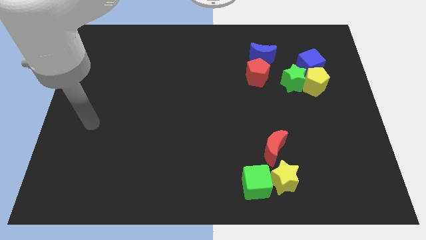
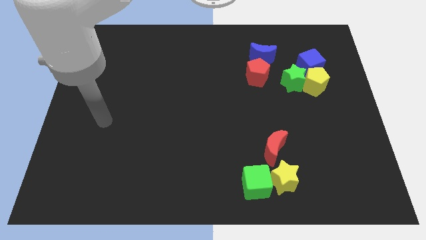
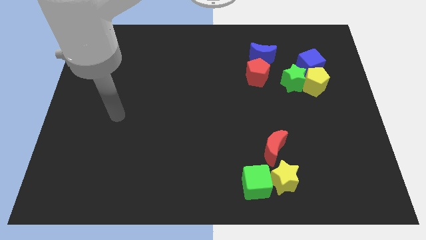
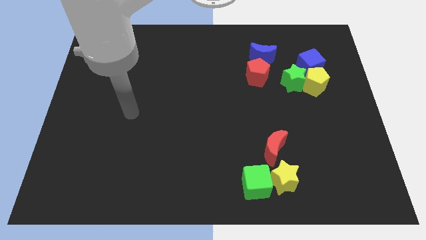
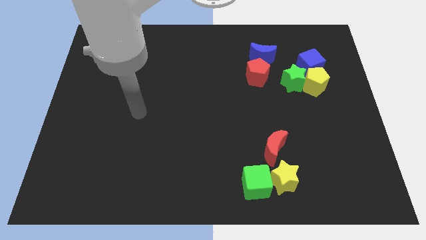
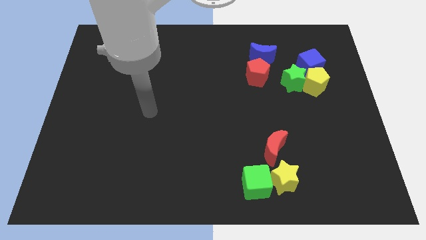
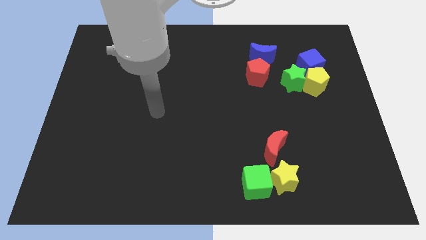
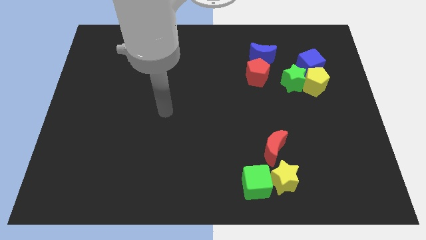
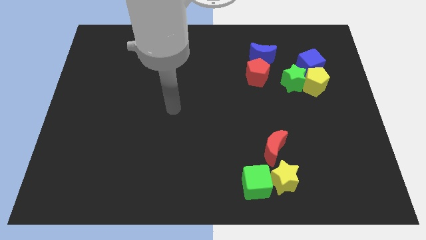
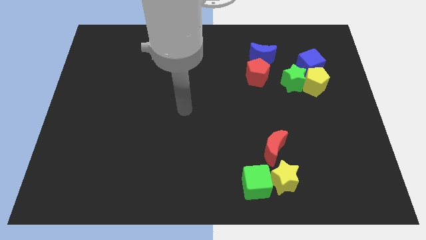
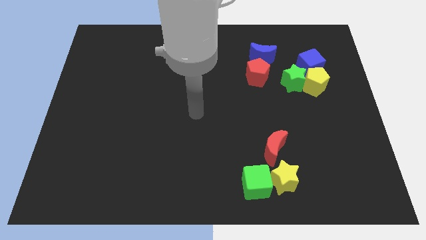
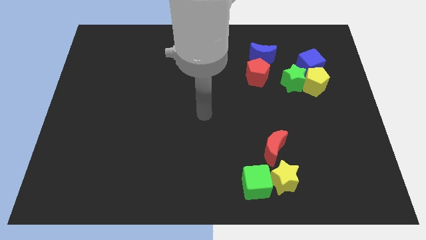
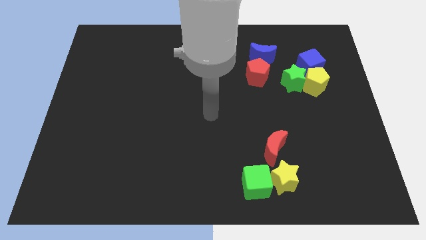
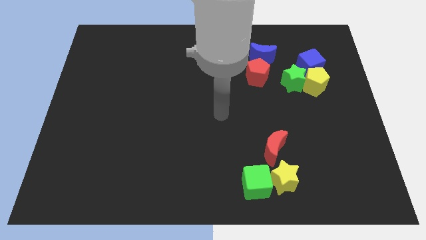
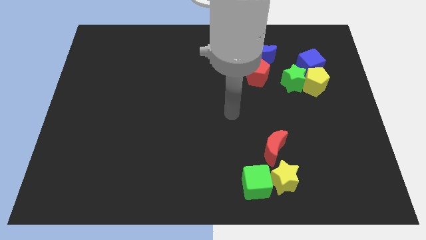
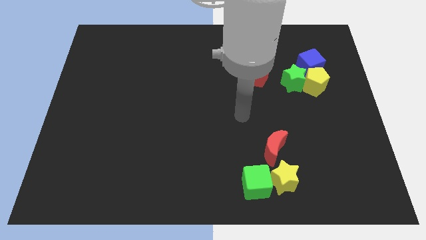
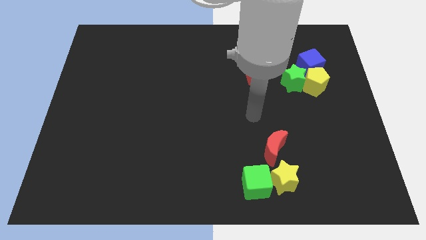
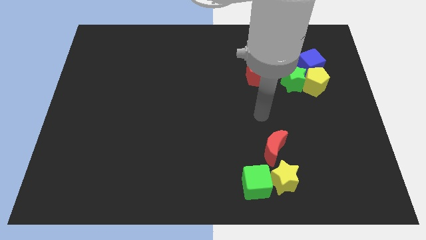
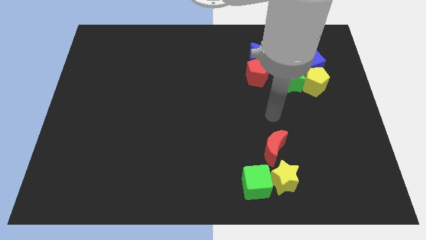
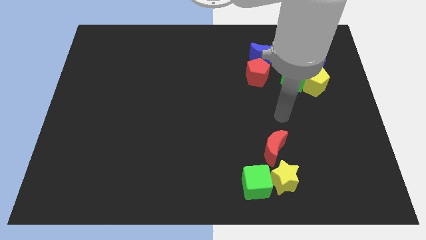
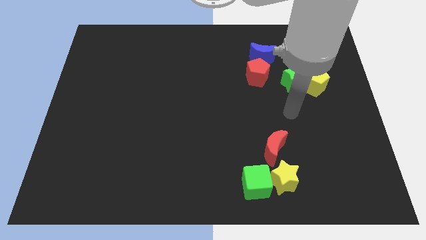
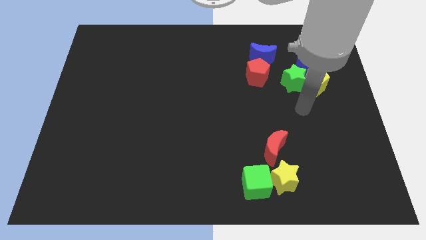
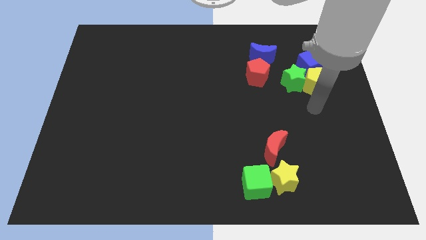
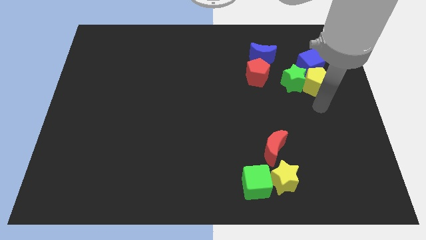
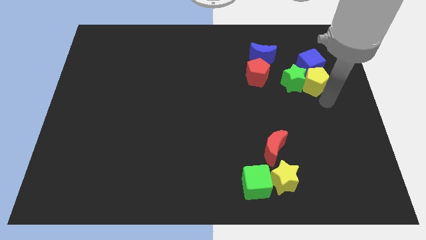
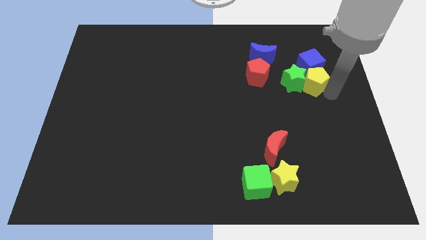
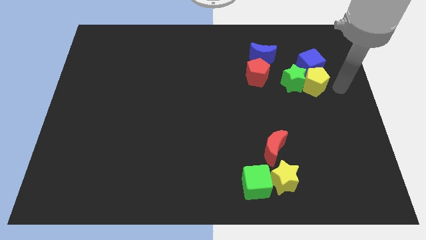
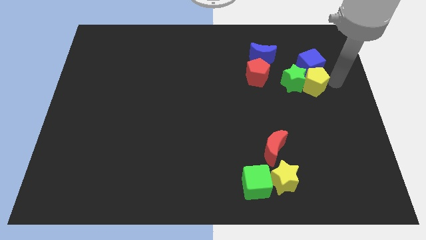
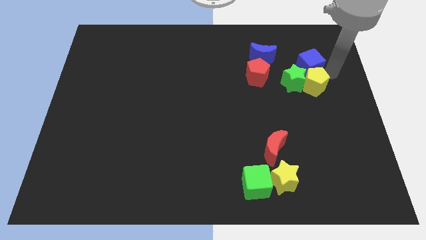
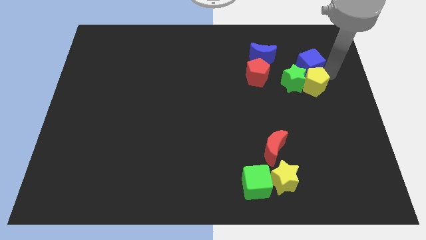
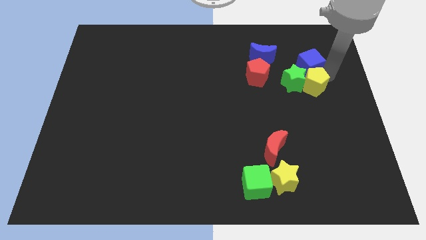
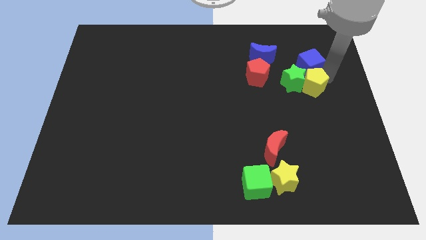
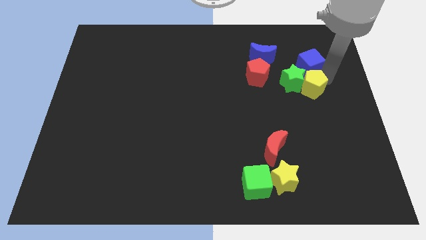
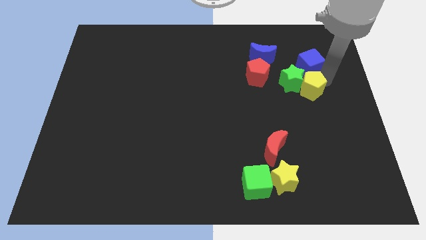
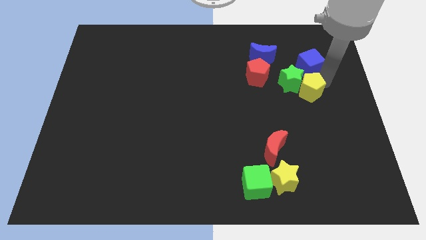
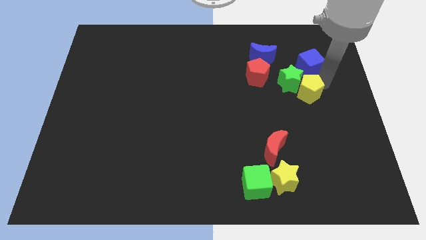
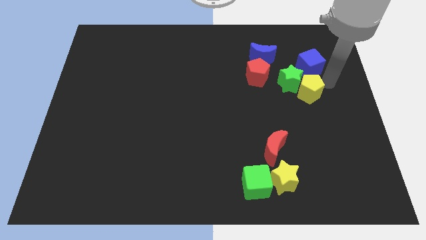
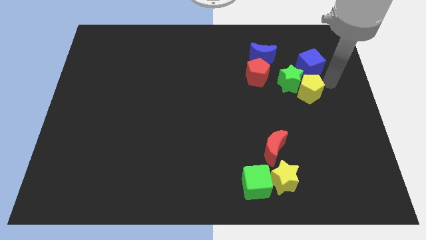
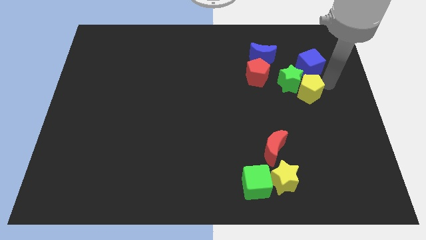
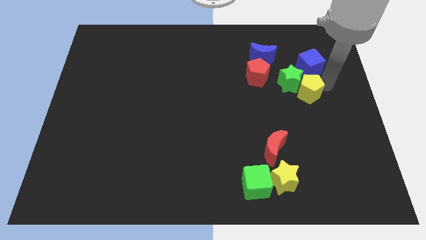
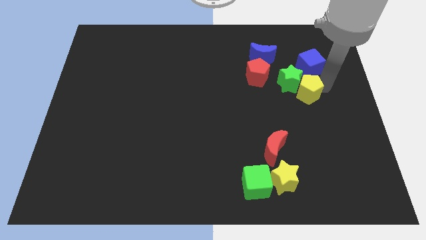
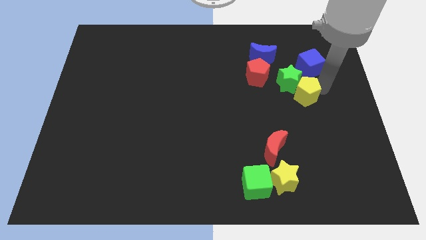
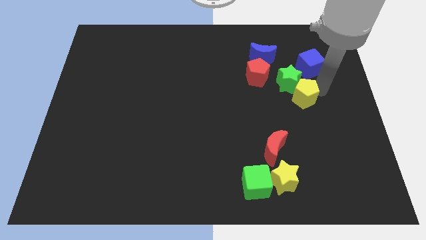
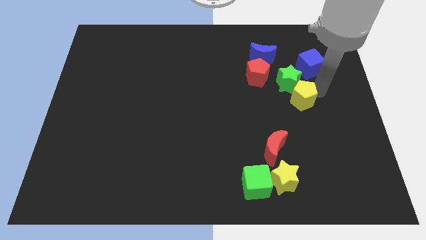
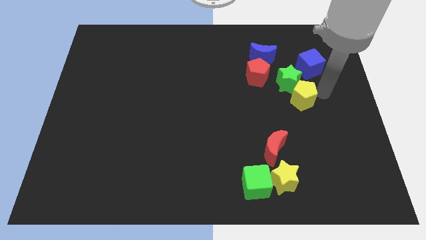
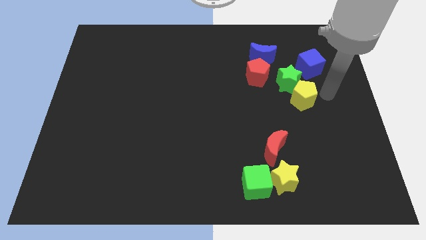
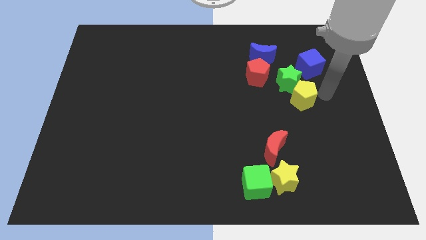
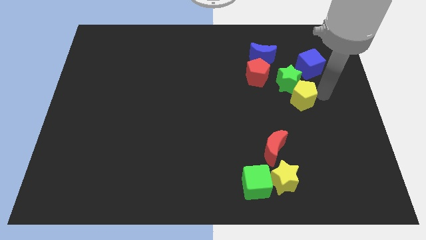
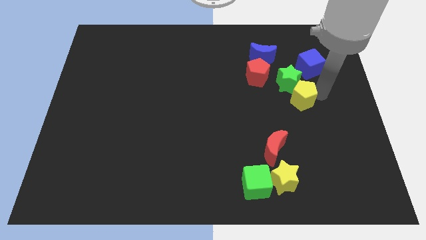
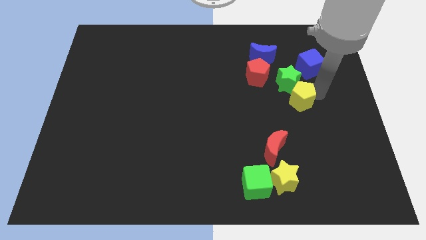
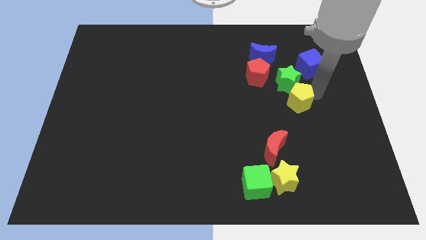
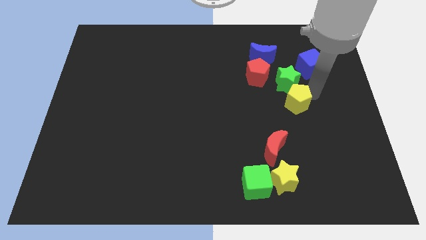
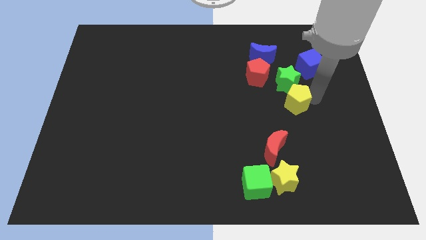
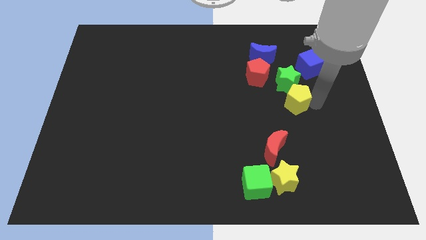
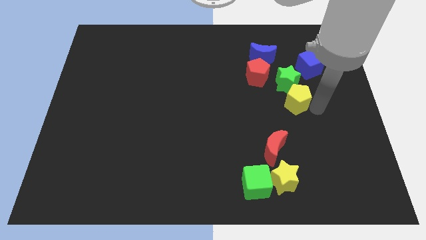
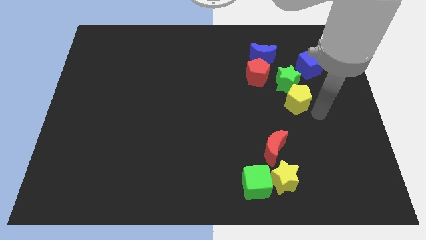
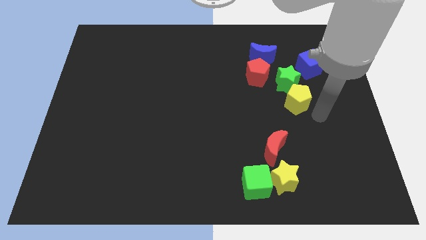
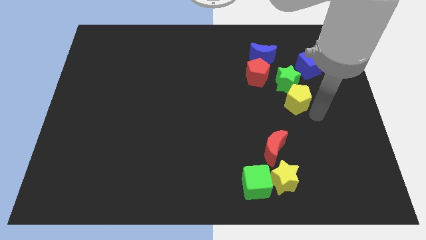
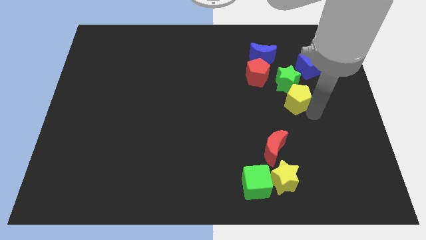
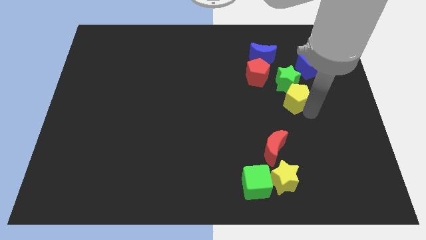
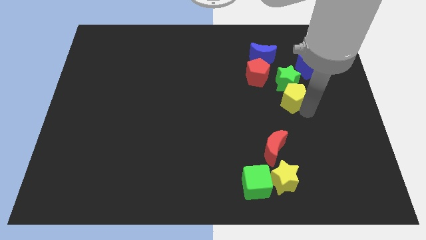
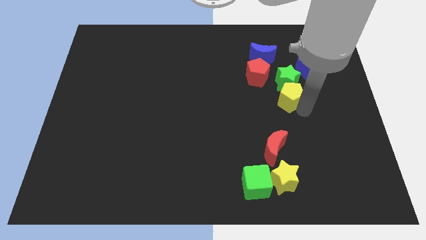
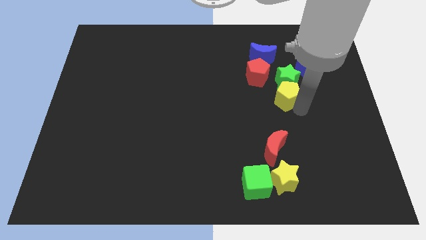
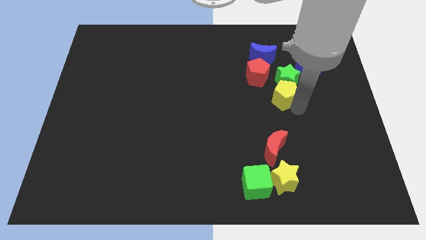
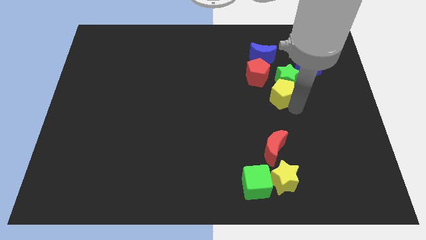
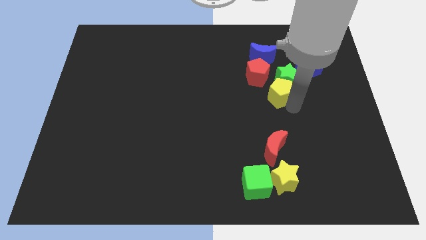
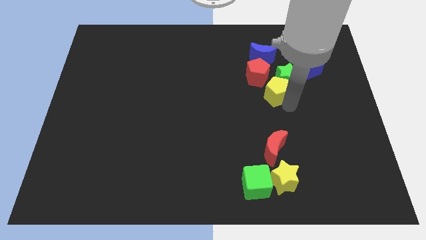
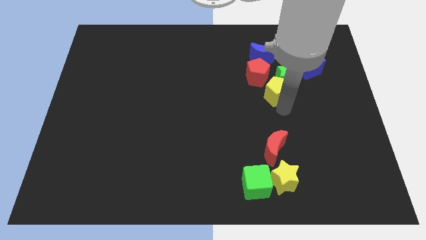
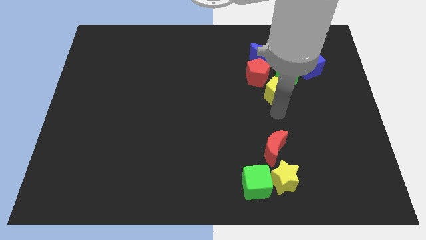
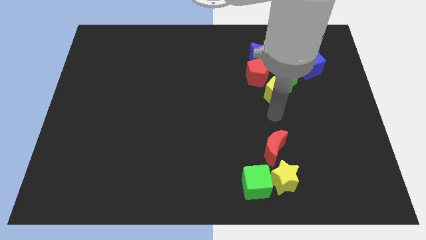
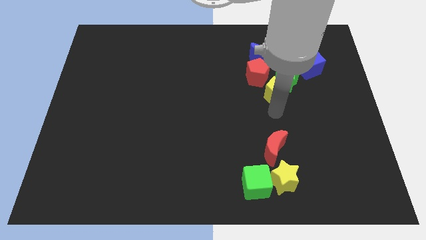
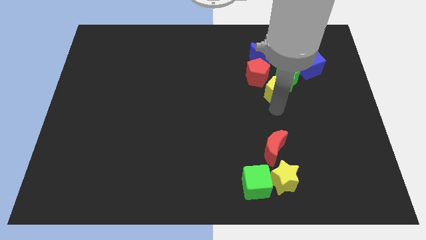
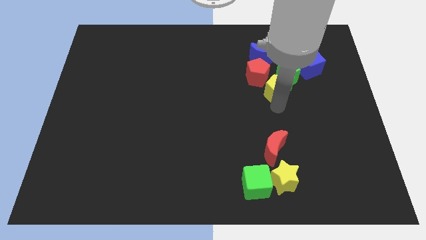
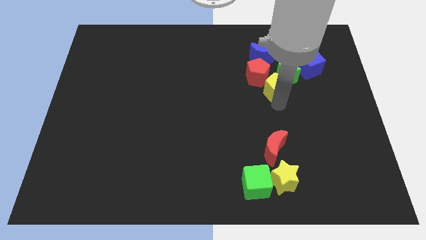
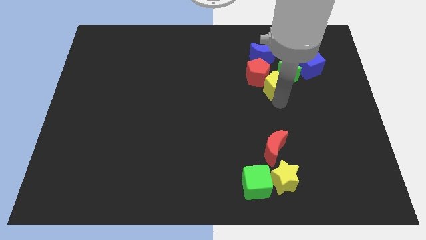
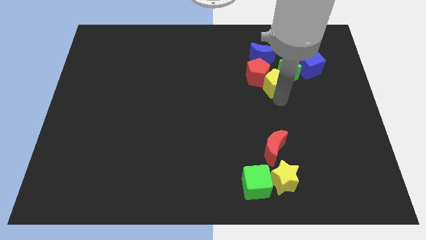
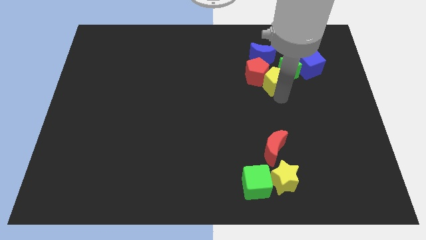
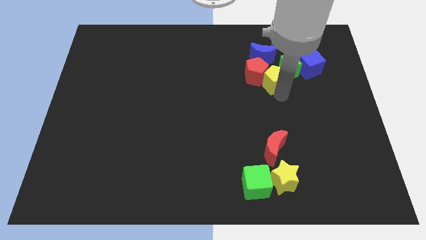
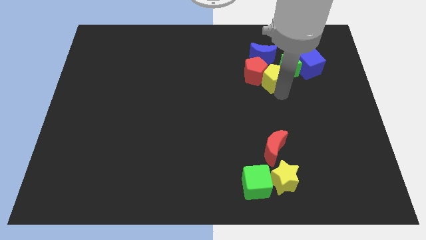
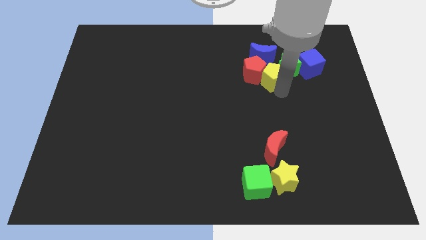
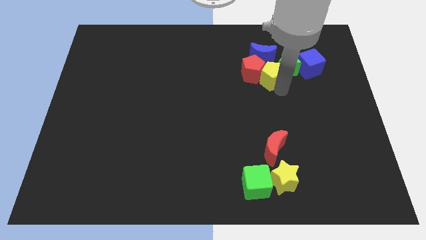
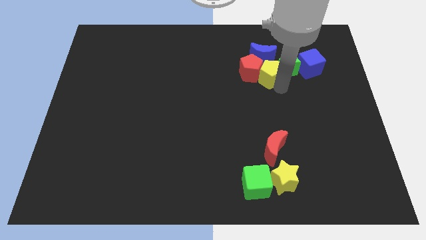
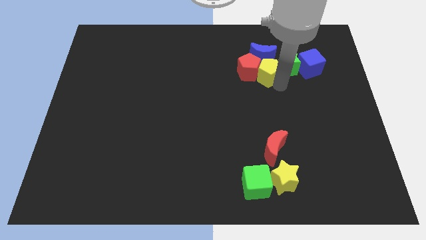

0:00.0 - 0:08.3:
push the yellow pentagon to the blue moon
